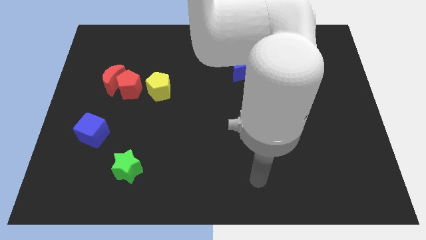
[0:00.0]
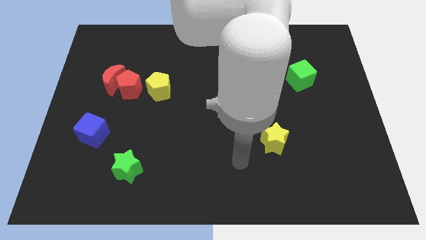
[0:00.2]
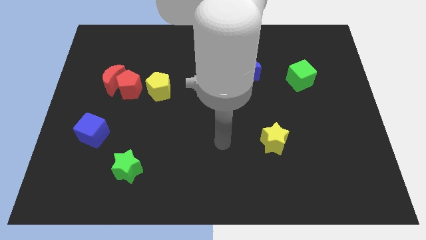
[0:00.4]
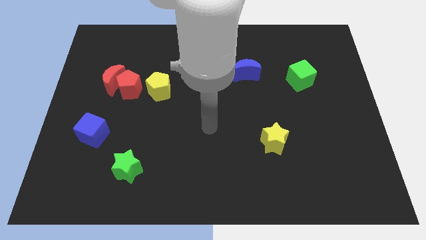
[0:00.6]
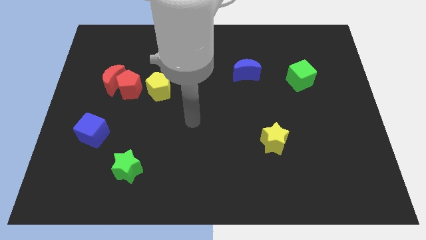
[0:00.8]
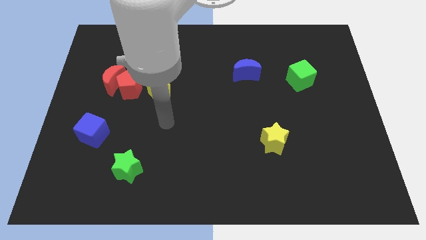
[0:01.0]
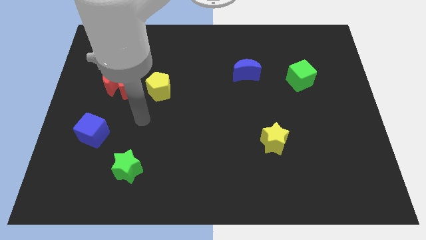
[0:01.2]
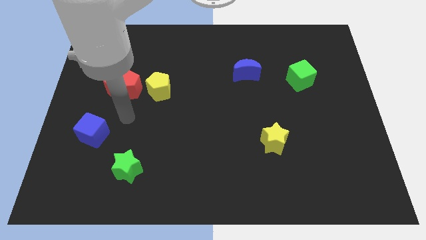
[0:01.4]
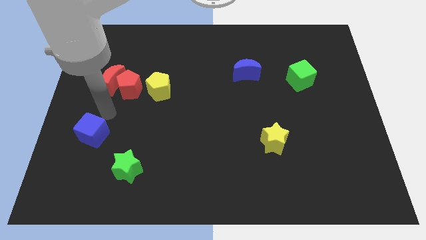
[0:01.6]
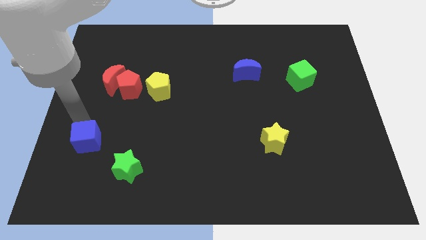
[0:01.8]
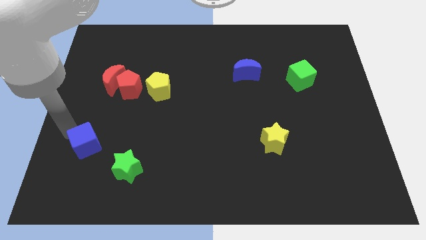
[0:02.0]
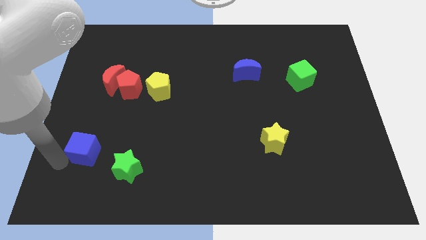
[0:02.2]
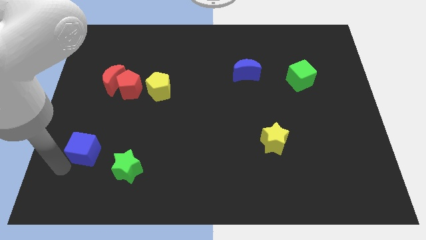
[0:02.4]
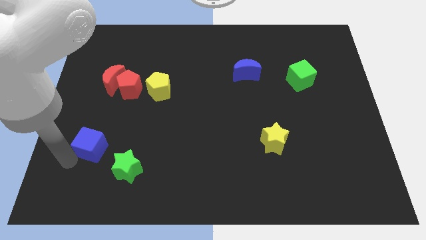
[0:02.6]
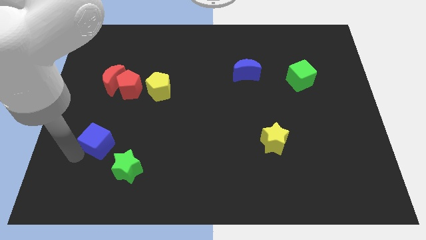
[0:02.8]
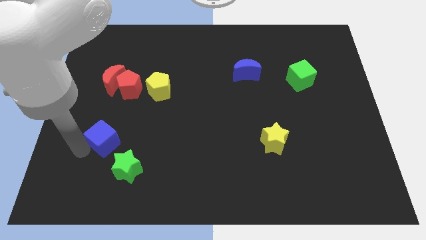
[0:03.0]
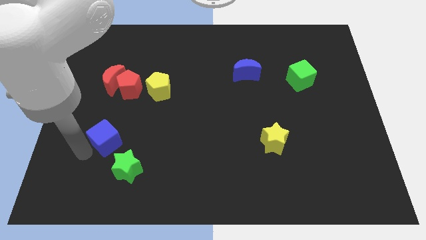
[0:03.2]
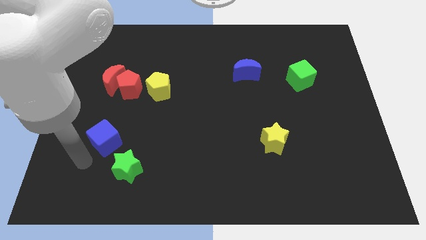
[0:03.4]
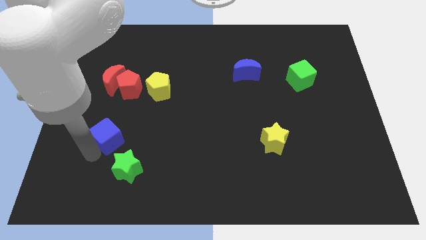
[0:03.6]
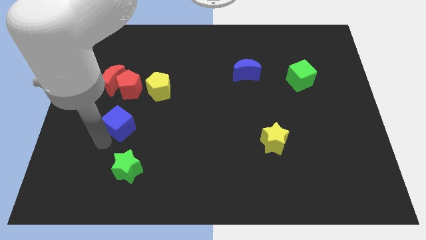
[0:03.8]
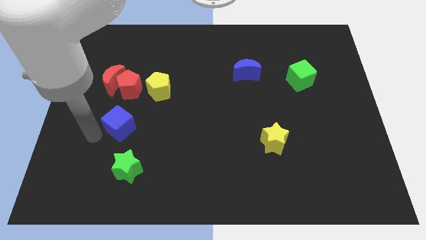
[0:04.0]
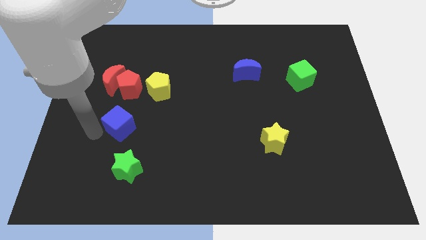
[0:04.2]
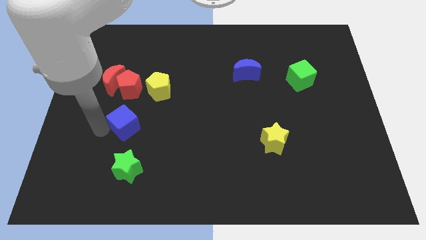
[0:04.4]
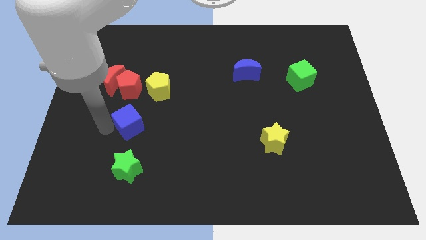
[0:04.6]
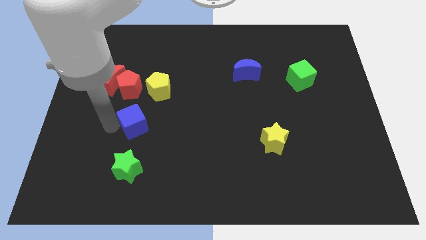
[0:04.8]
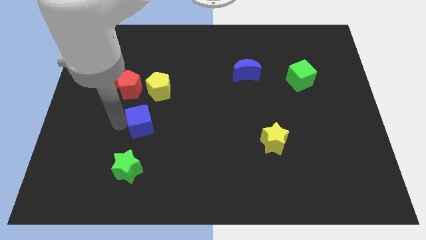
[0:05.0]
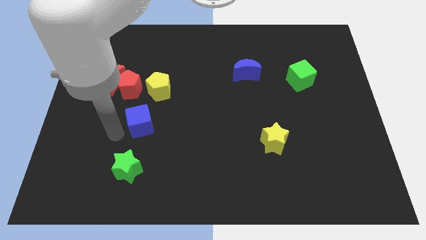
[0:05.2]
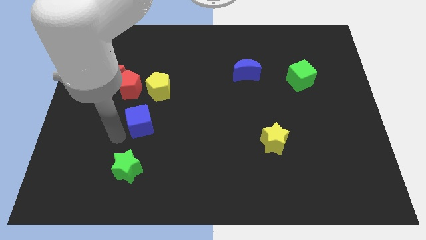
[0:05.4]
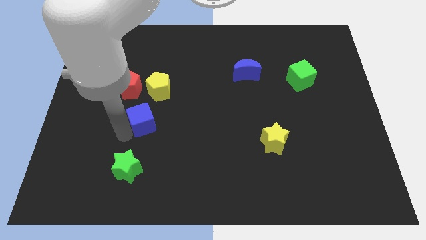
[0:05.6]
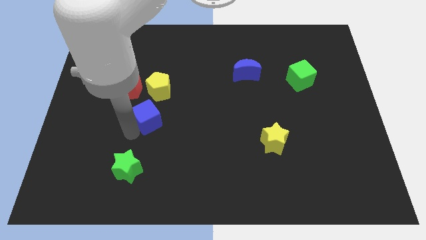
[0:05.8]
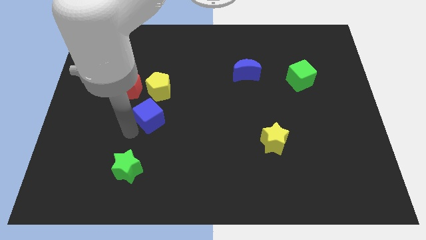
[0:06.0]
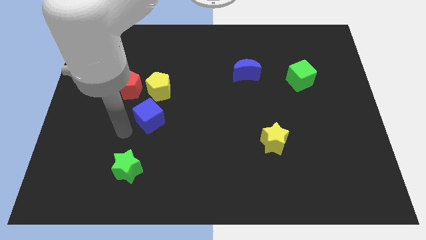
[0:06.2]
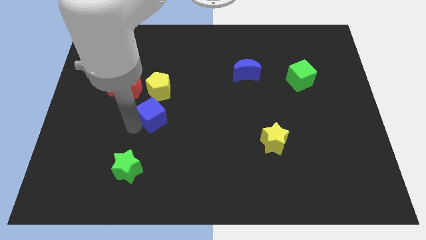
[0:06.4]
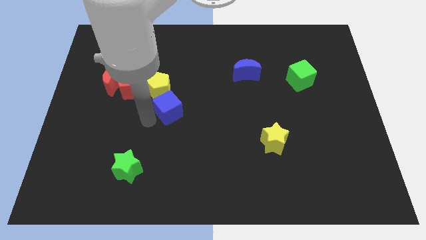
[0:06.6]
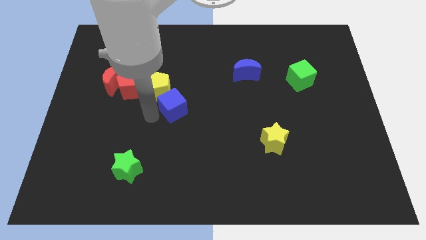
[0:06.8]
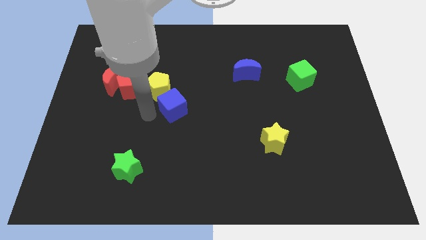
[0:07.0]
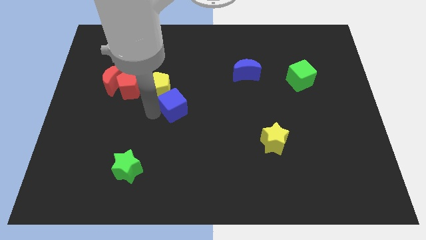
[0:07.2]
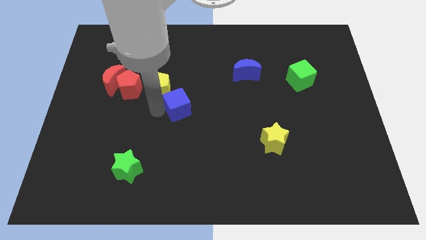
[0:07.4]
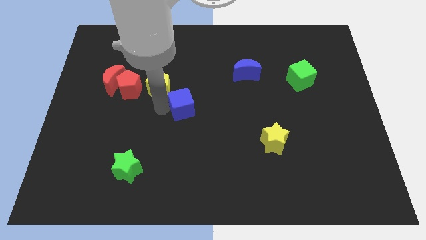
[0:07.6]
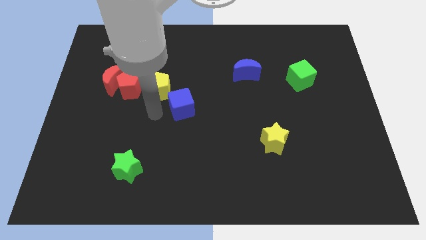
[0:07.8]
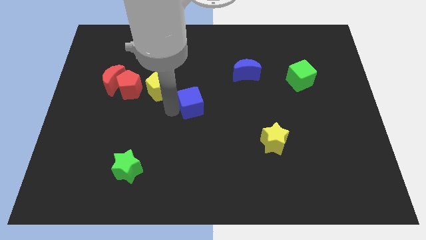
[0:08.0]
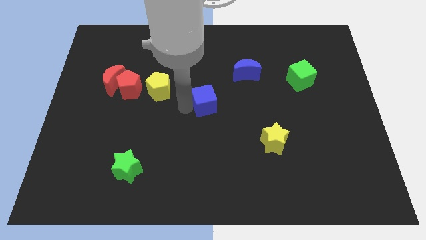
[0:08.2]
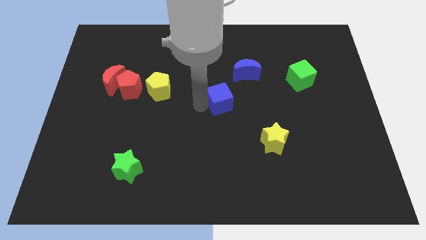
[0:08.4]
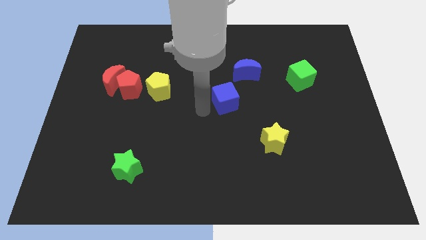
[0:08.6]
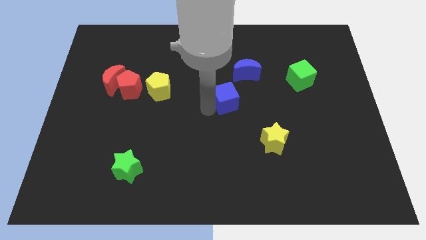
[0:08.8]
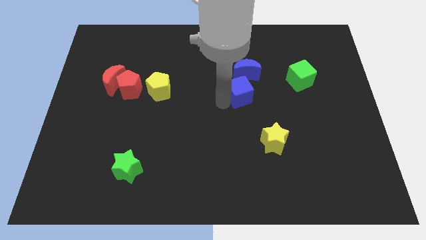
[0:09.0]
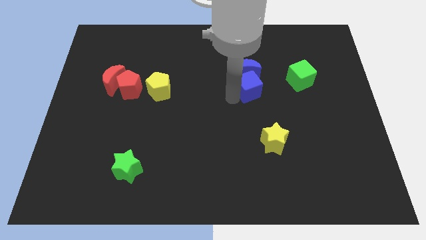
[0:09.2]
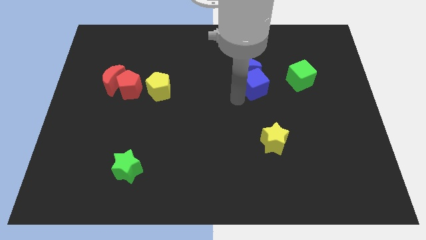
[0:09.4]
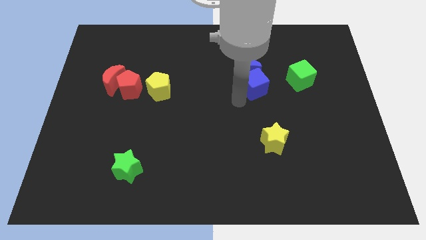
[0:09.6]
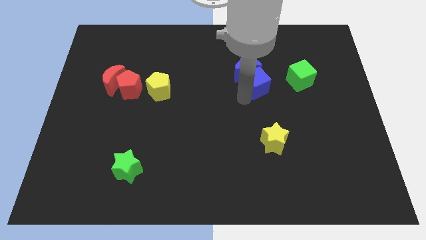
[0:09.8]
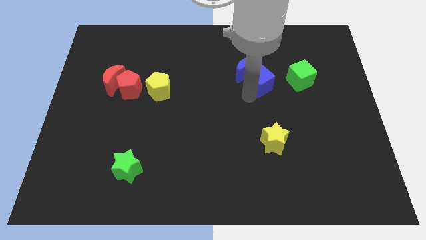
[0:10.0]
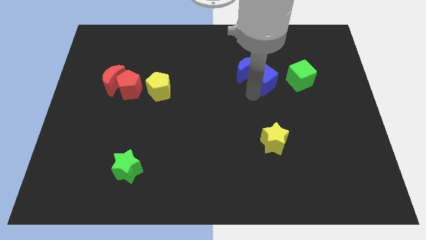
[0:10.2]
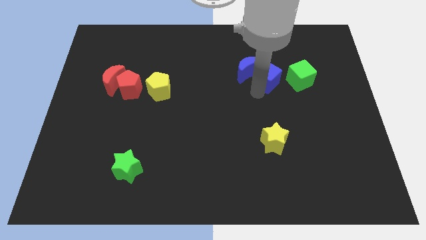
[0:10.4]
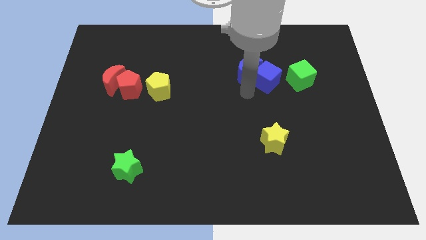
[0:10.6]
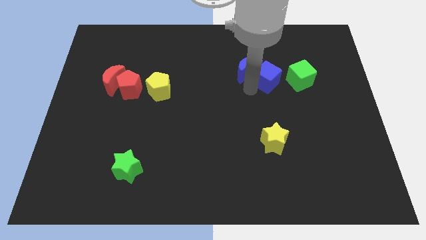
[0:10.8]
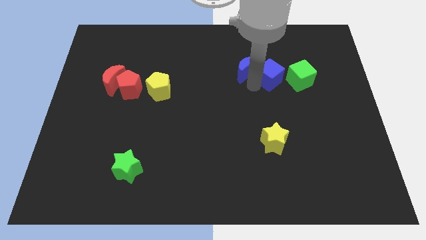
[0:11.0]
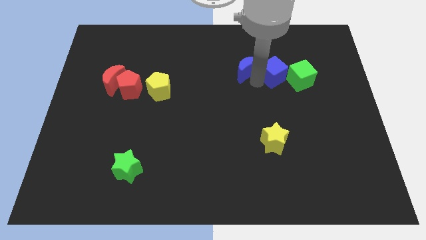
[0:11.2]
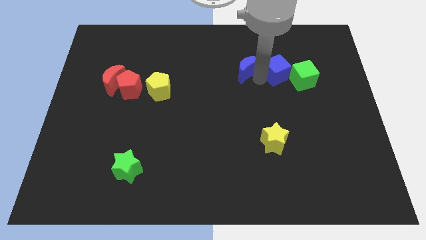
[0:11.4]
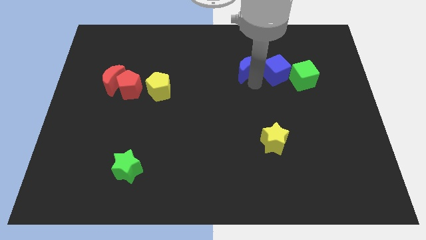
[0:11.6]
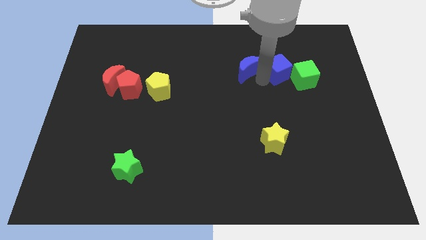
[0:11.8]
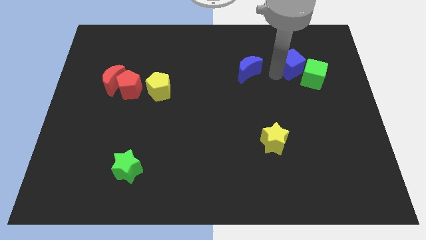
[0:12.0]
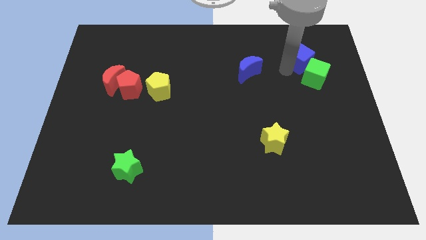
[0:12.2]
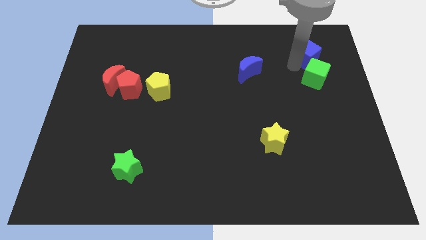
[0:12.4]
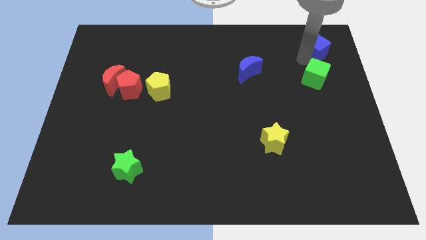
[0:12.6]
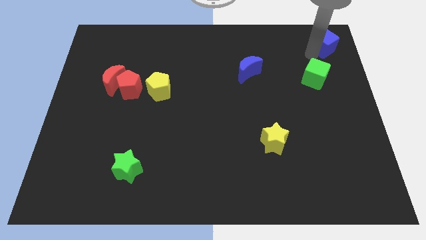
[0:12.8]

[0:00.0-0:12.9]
move the blue cube to the top right corner

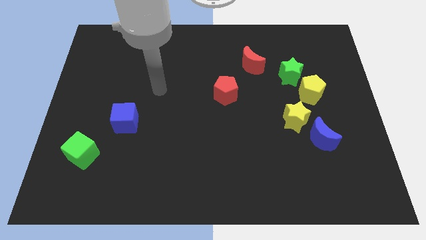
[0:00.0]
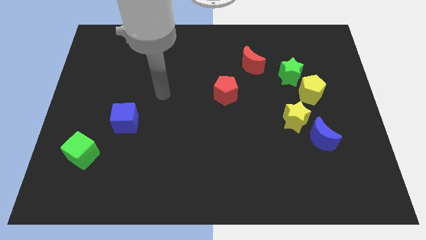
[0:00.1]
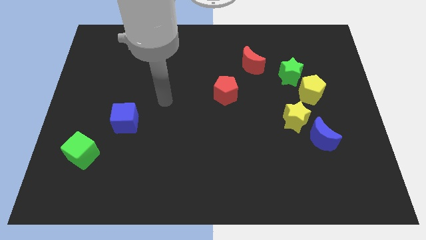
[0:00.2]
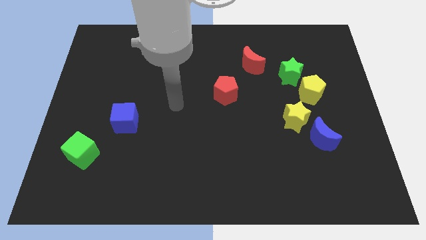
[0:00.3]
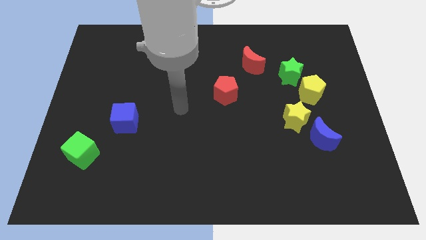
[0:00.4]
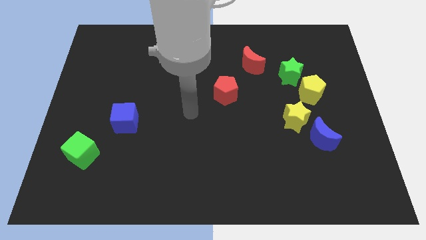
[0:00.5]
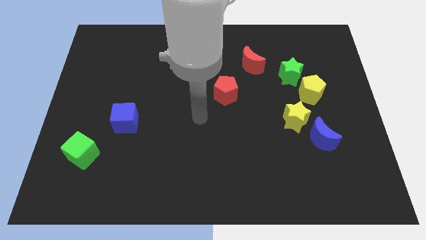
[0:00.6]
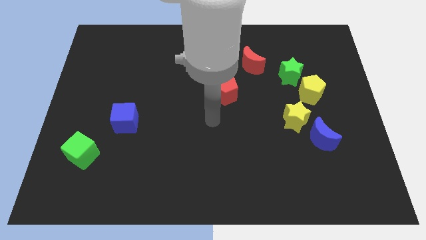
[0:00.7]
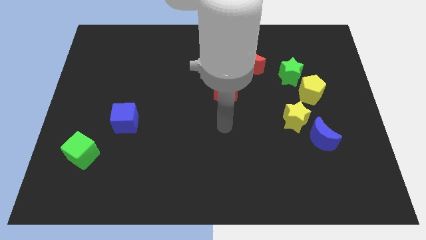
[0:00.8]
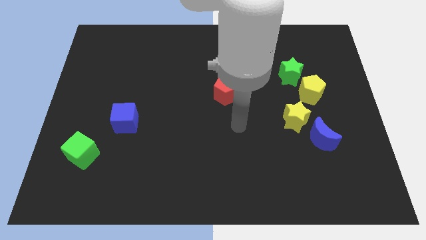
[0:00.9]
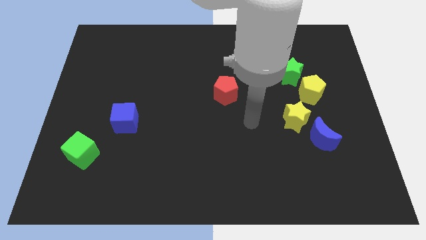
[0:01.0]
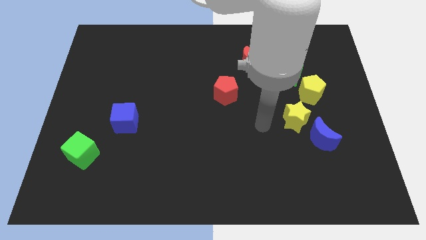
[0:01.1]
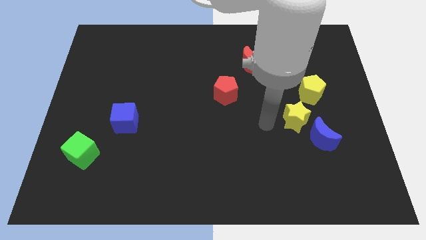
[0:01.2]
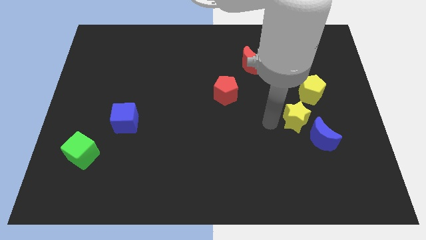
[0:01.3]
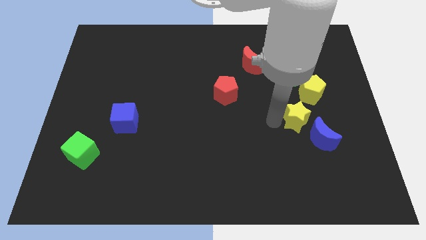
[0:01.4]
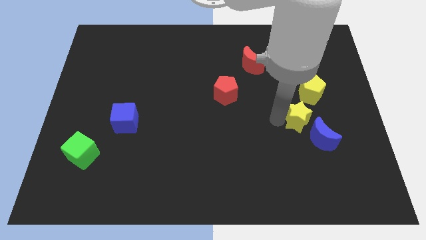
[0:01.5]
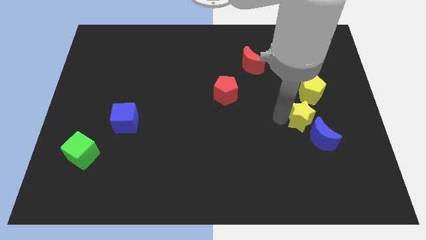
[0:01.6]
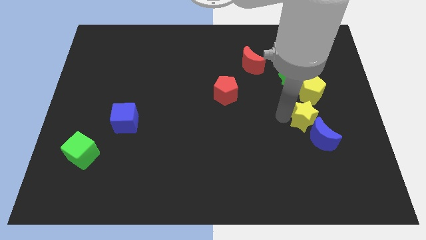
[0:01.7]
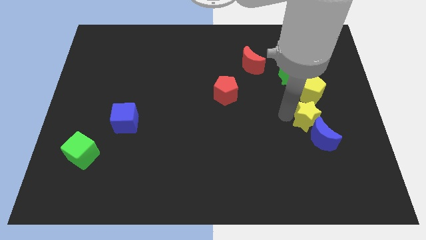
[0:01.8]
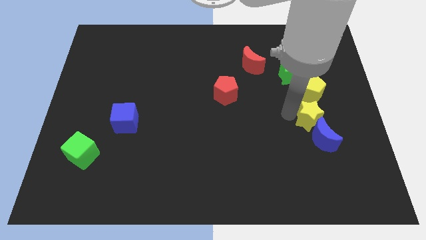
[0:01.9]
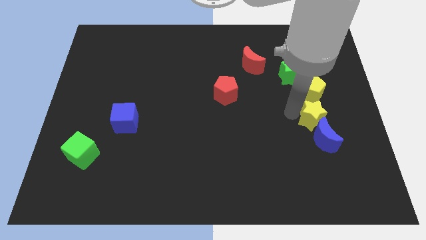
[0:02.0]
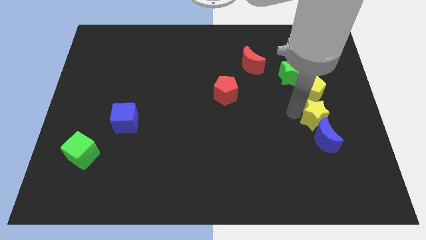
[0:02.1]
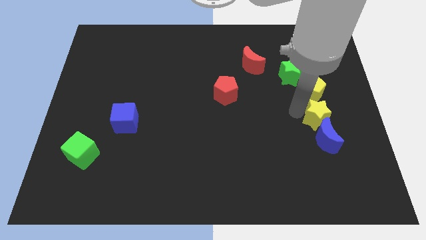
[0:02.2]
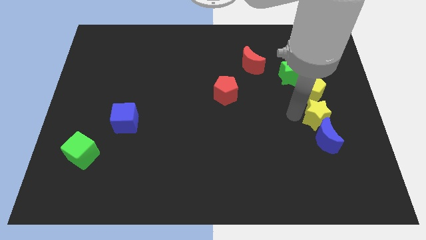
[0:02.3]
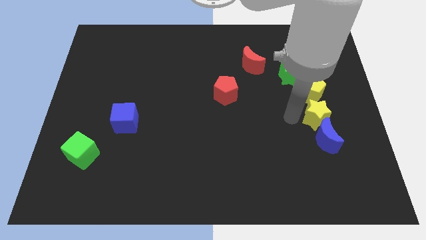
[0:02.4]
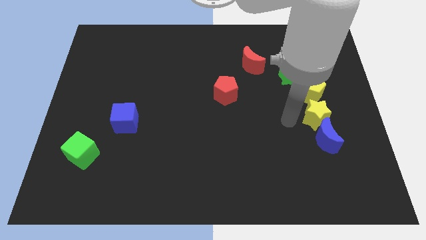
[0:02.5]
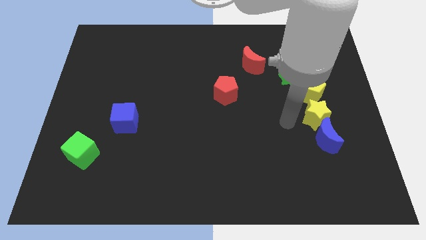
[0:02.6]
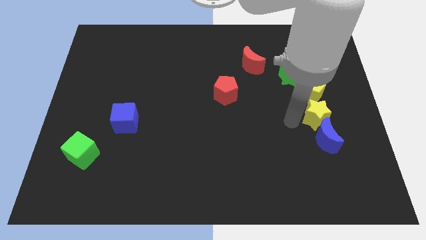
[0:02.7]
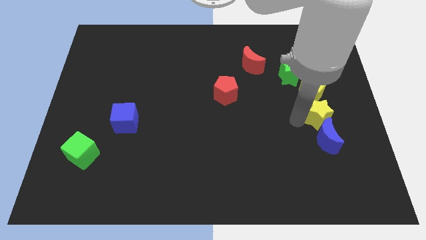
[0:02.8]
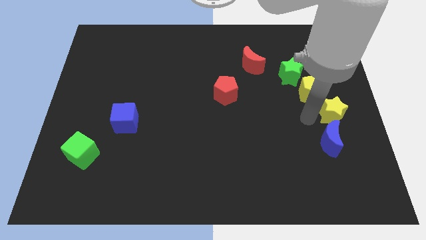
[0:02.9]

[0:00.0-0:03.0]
slide the yellow star to the center right
